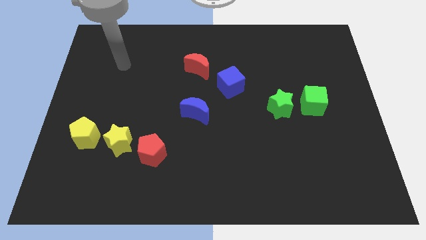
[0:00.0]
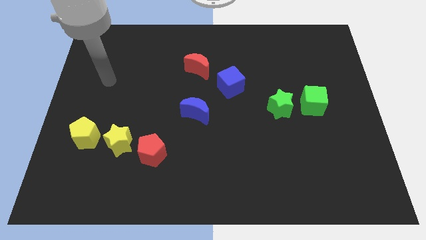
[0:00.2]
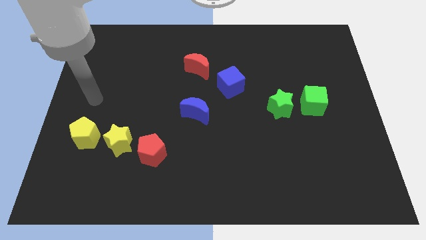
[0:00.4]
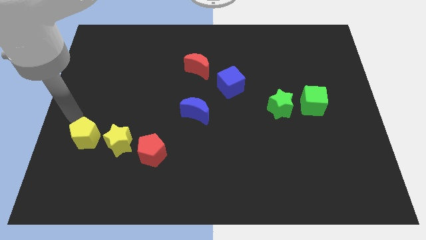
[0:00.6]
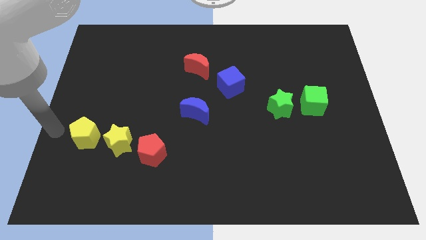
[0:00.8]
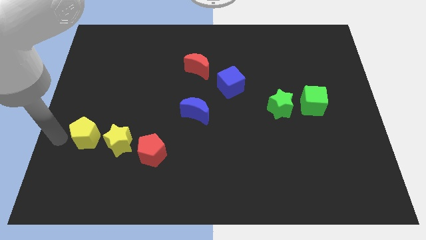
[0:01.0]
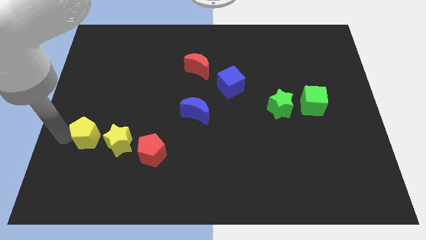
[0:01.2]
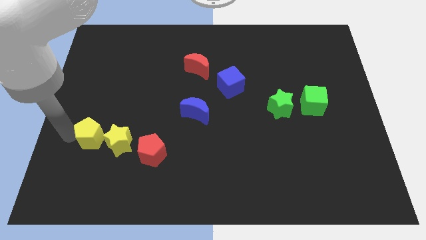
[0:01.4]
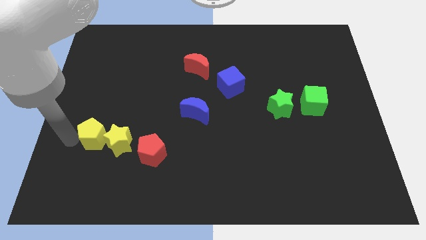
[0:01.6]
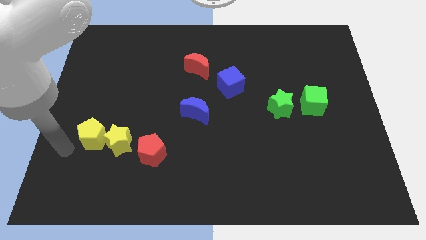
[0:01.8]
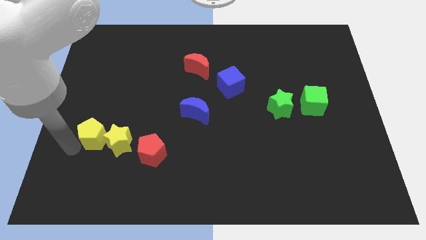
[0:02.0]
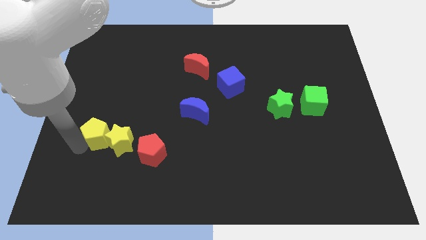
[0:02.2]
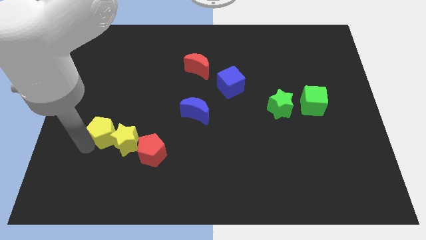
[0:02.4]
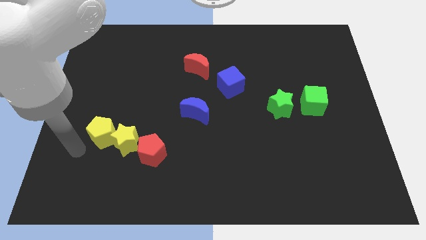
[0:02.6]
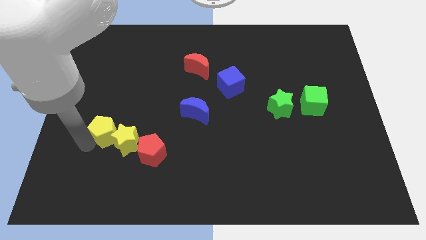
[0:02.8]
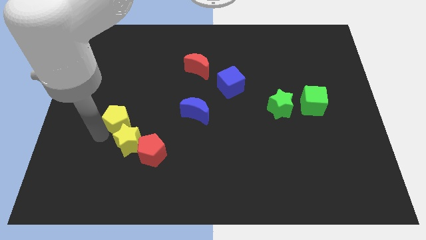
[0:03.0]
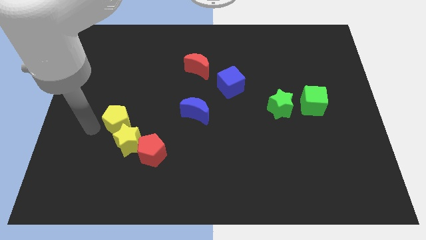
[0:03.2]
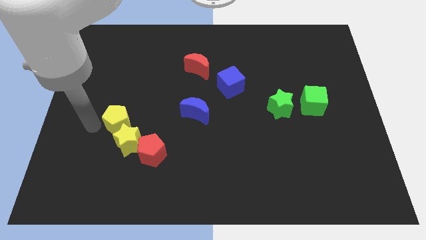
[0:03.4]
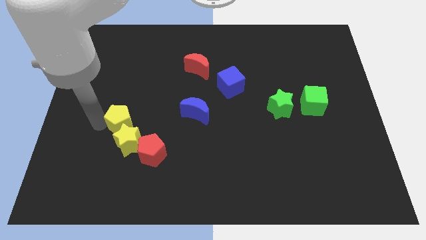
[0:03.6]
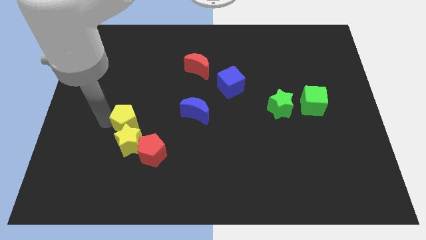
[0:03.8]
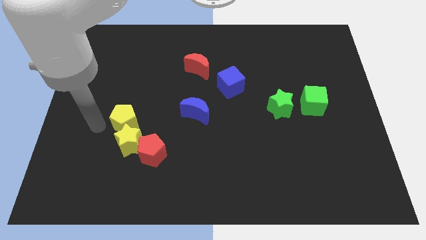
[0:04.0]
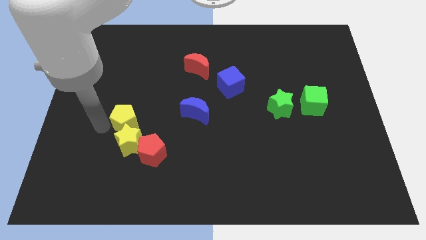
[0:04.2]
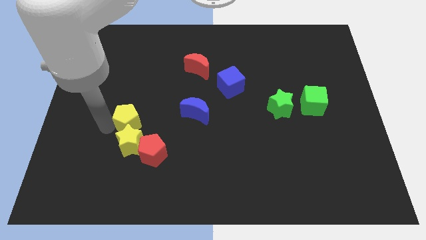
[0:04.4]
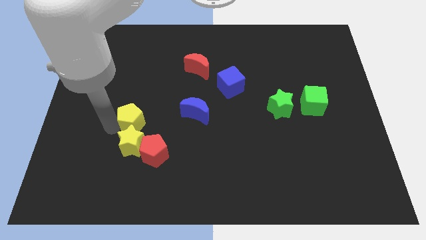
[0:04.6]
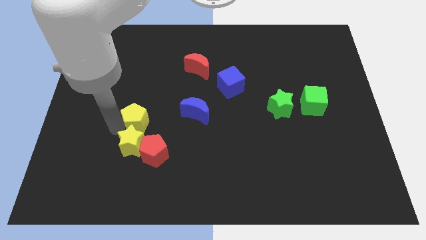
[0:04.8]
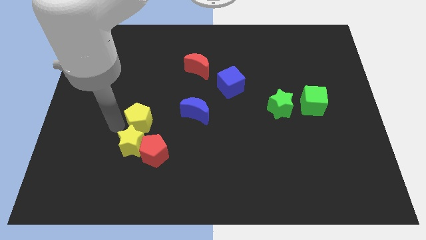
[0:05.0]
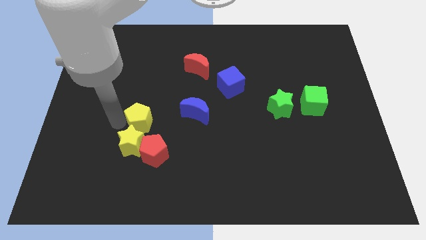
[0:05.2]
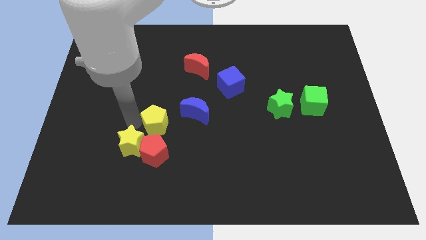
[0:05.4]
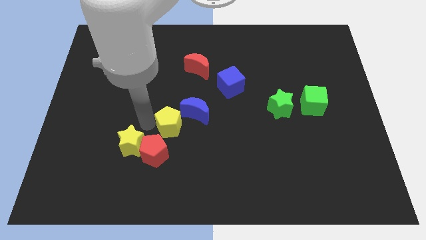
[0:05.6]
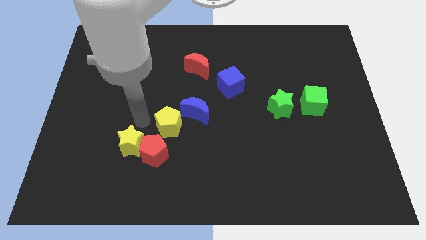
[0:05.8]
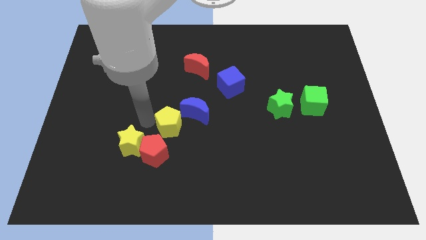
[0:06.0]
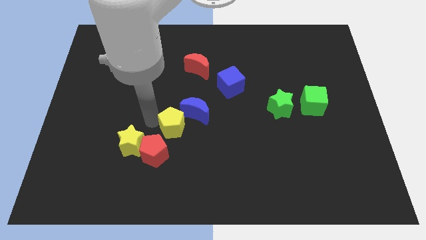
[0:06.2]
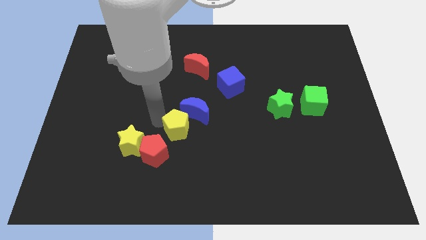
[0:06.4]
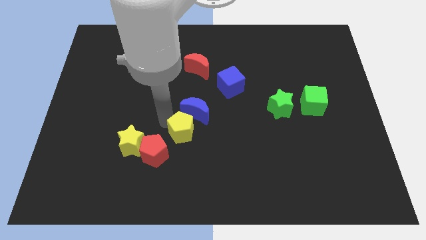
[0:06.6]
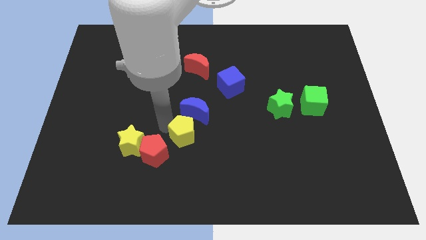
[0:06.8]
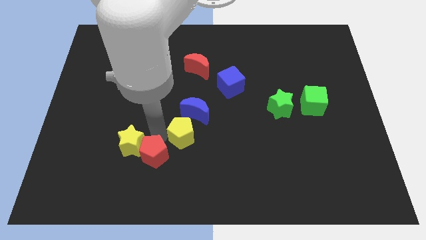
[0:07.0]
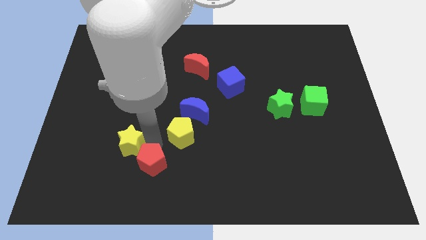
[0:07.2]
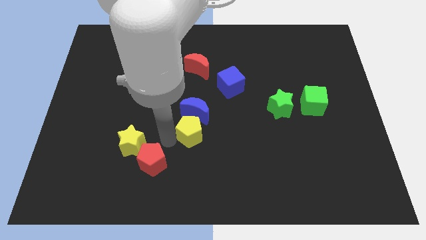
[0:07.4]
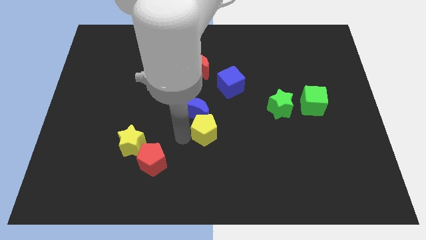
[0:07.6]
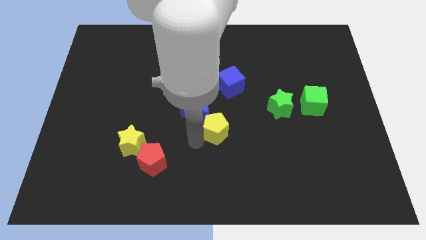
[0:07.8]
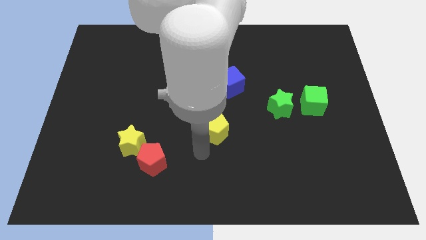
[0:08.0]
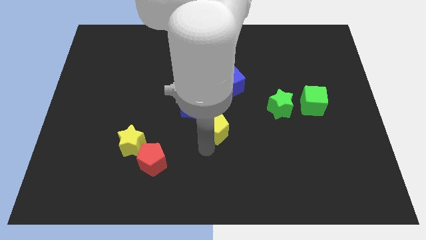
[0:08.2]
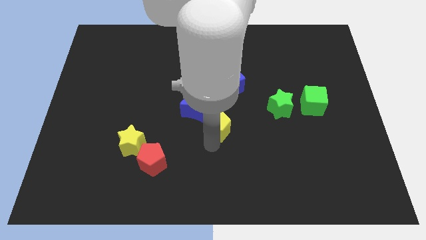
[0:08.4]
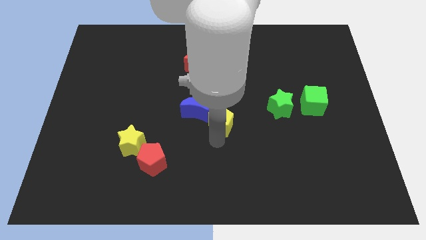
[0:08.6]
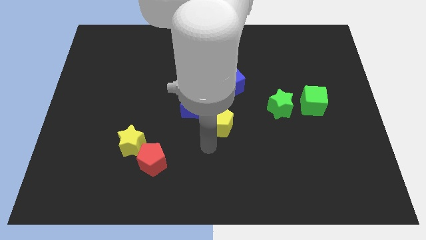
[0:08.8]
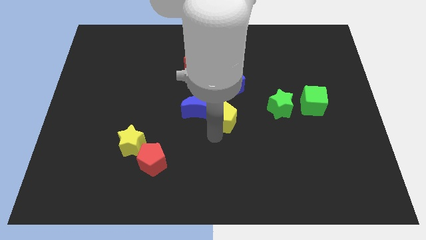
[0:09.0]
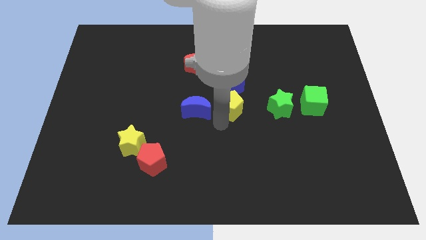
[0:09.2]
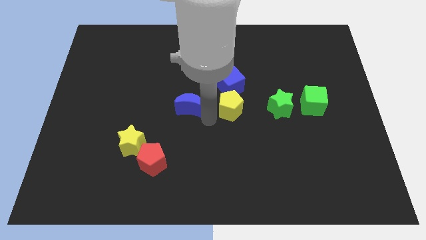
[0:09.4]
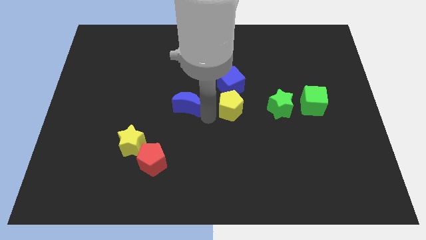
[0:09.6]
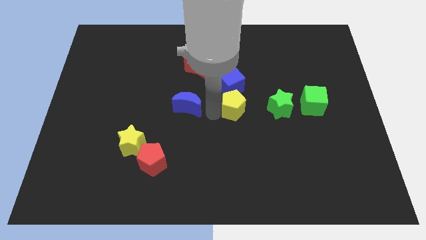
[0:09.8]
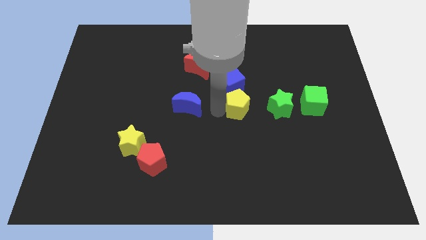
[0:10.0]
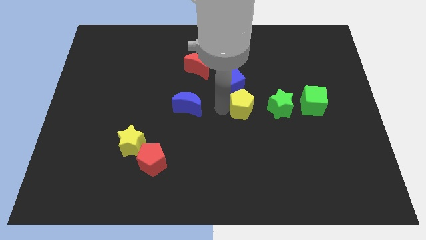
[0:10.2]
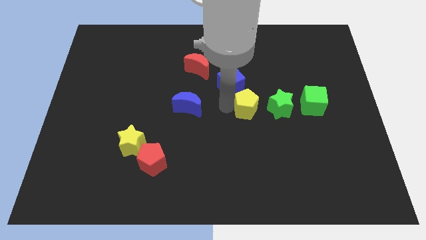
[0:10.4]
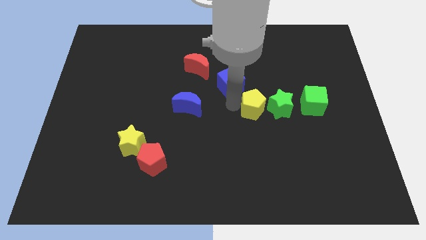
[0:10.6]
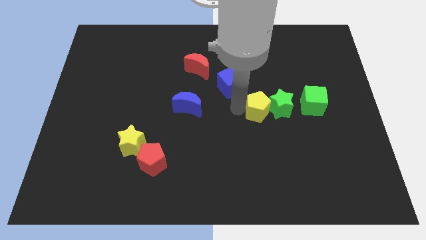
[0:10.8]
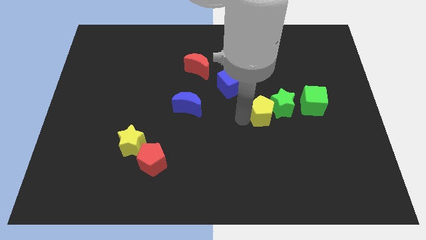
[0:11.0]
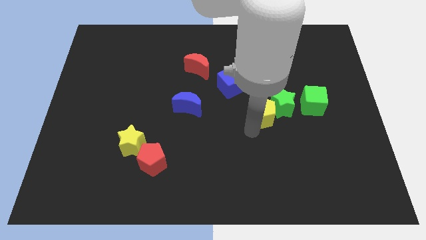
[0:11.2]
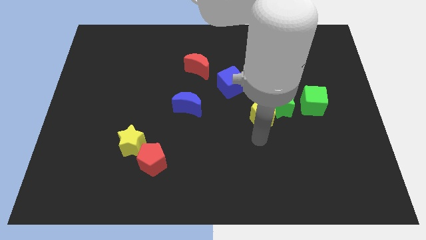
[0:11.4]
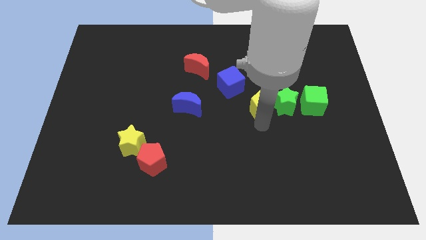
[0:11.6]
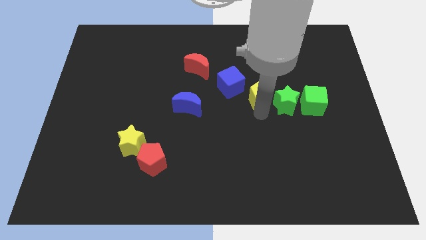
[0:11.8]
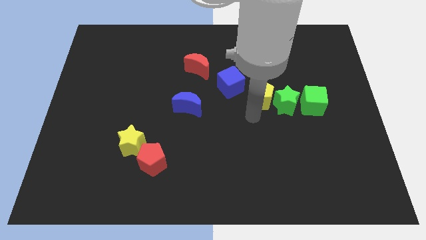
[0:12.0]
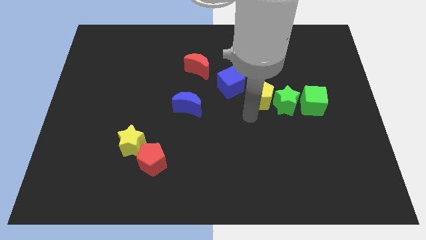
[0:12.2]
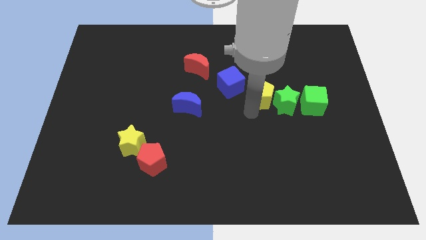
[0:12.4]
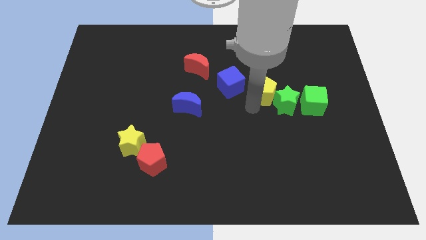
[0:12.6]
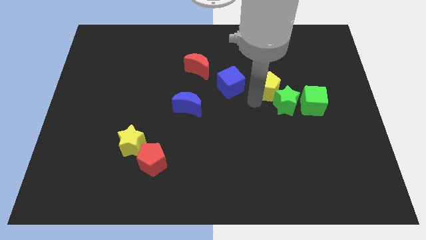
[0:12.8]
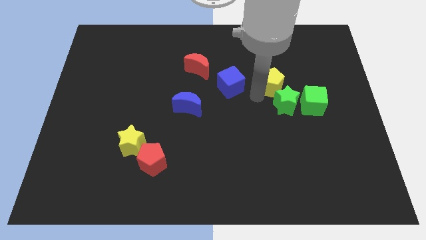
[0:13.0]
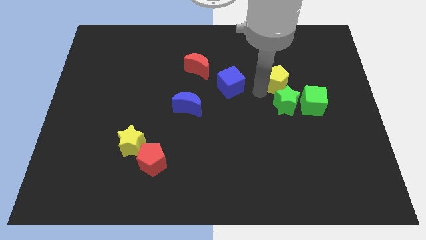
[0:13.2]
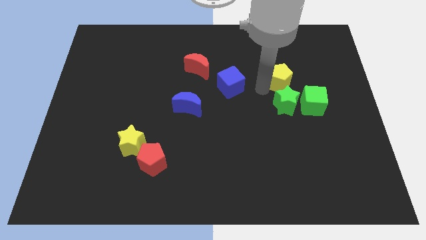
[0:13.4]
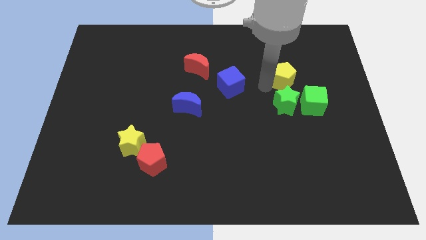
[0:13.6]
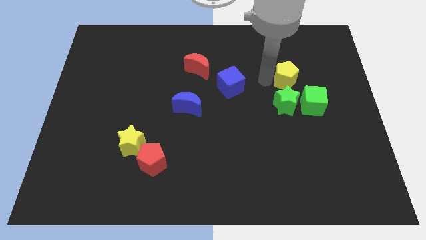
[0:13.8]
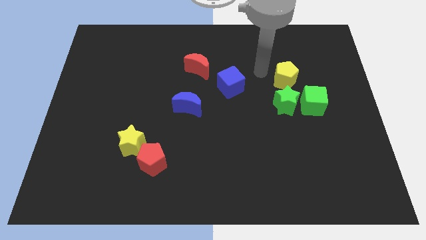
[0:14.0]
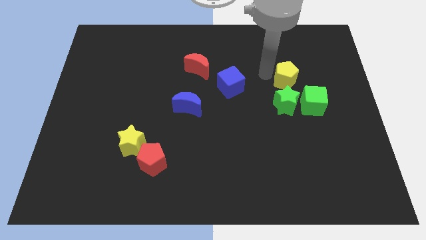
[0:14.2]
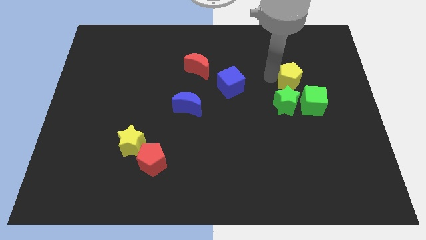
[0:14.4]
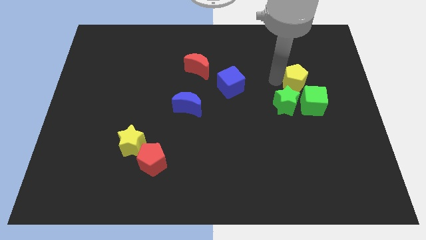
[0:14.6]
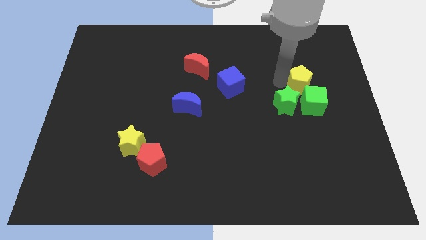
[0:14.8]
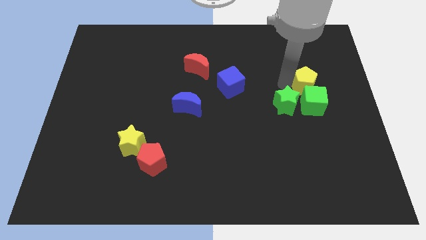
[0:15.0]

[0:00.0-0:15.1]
put the yellow pentagon diagonally up and to the right of the green cube
